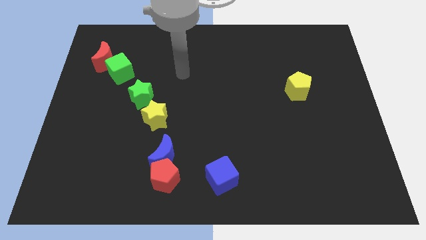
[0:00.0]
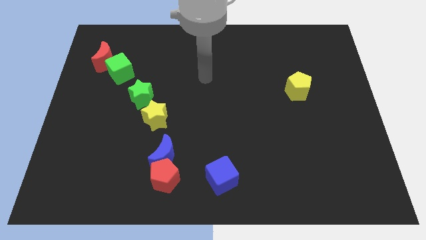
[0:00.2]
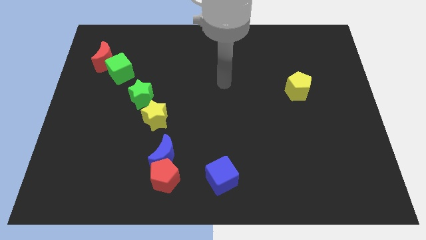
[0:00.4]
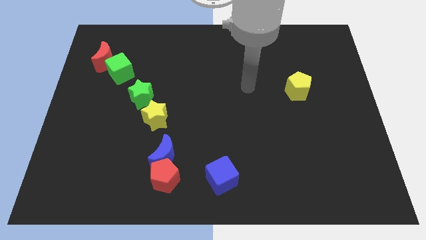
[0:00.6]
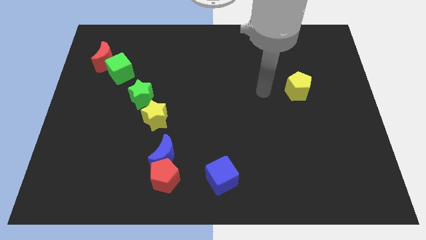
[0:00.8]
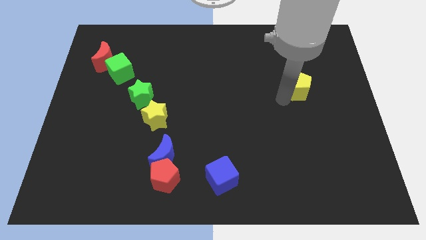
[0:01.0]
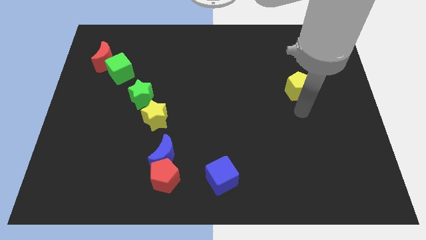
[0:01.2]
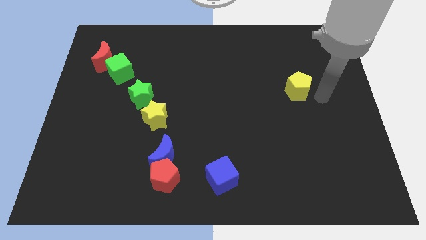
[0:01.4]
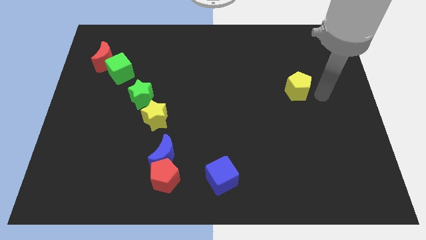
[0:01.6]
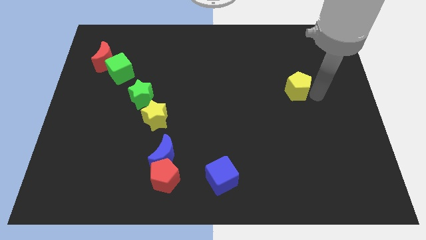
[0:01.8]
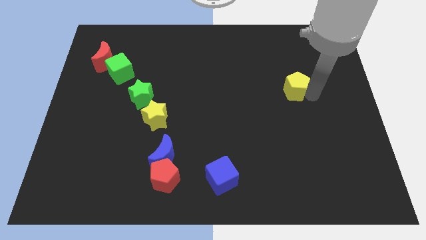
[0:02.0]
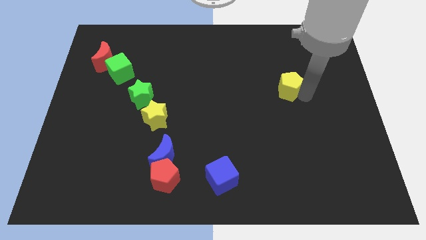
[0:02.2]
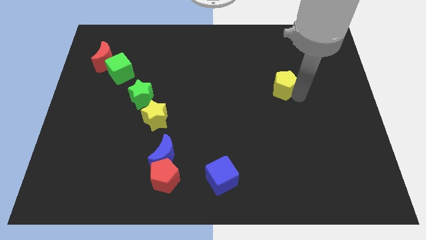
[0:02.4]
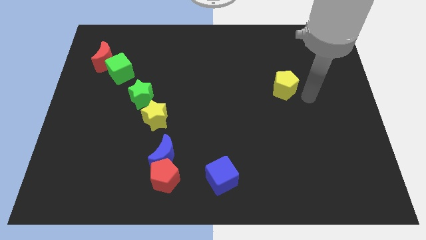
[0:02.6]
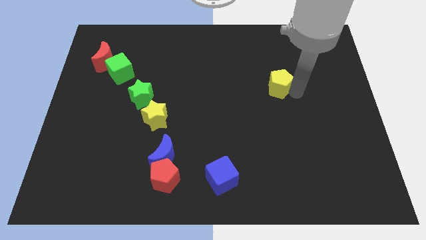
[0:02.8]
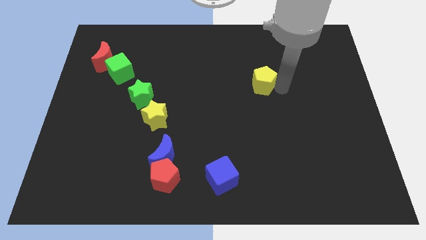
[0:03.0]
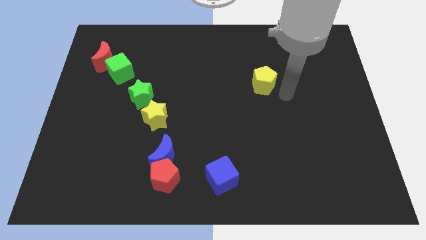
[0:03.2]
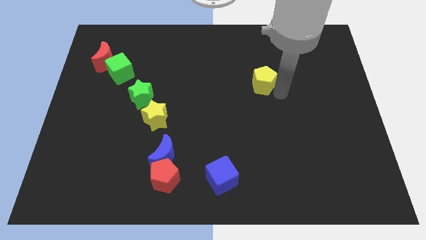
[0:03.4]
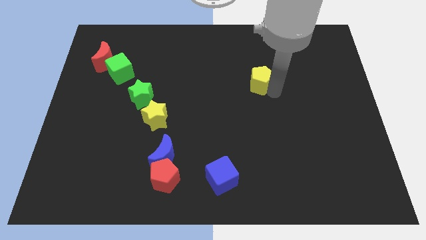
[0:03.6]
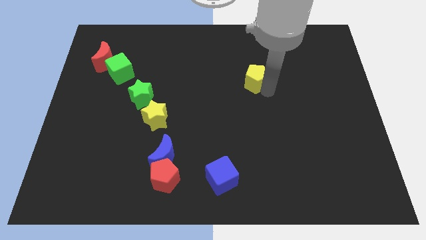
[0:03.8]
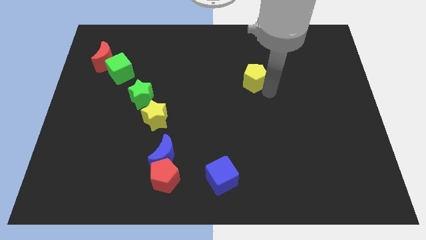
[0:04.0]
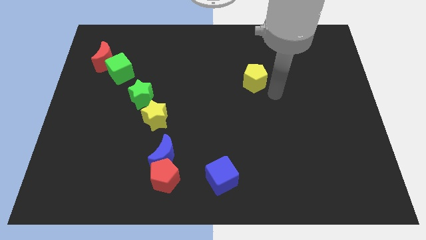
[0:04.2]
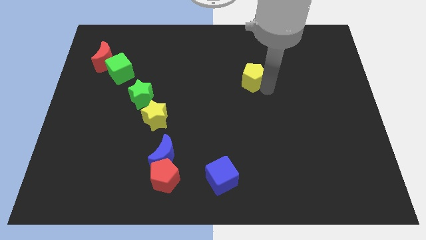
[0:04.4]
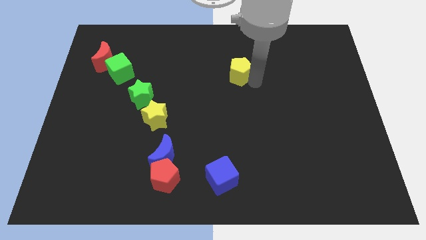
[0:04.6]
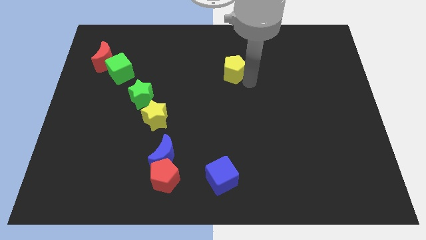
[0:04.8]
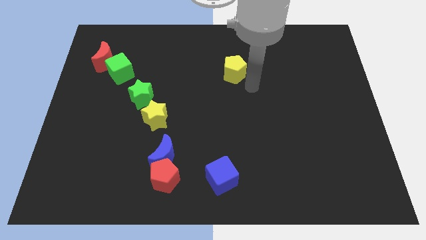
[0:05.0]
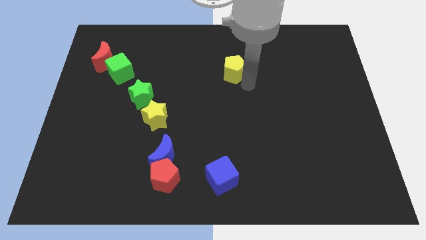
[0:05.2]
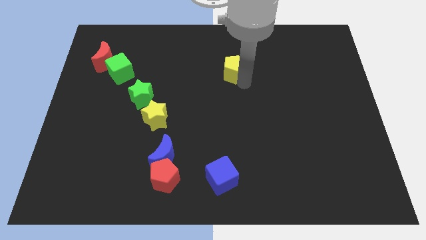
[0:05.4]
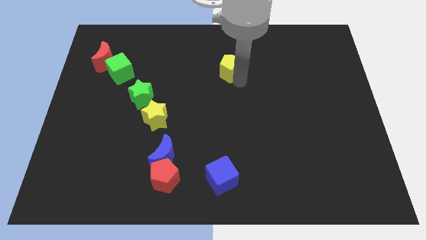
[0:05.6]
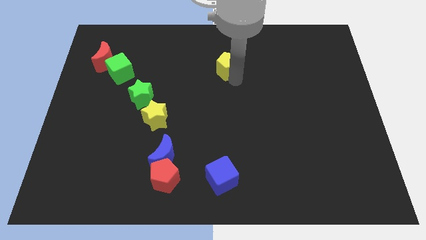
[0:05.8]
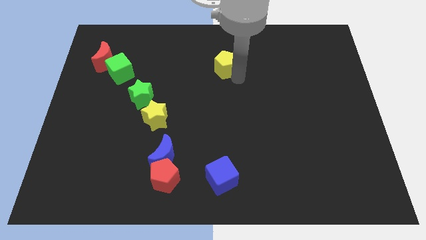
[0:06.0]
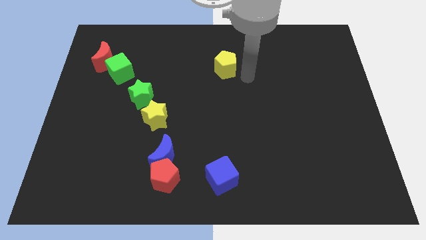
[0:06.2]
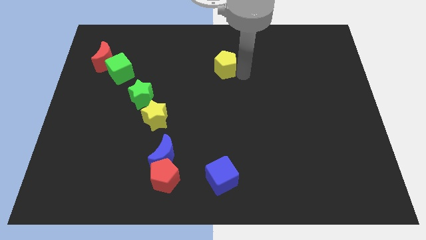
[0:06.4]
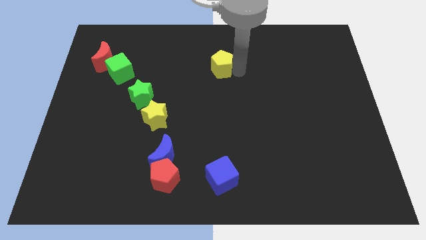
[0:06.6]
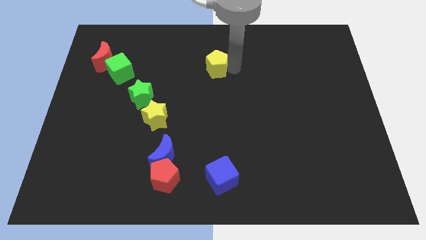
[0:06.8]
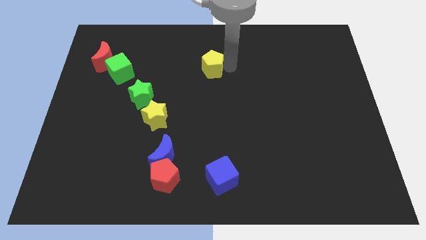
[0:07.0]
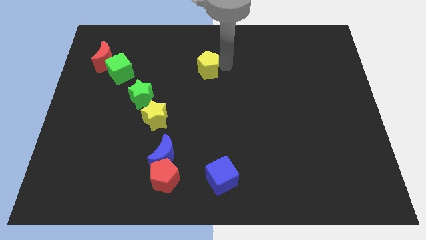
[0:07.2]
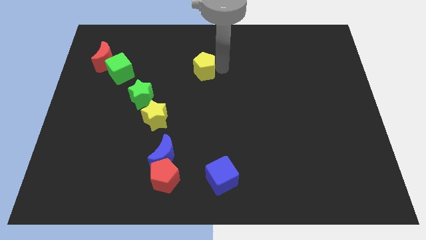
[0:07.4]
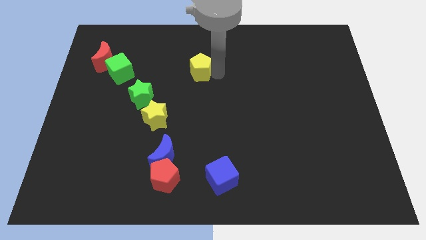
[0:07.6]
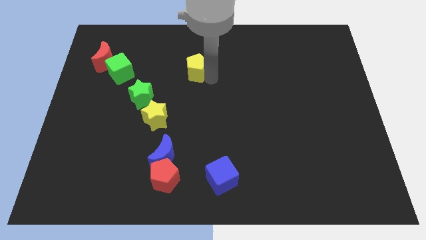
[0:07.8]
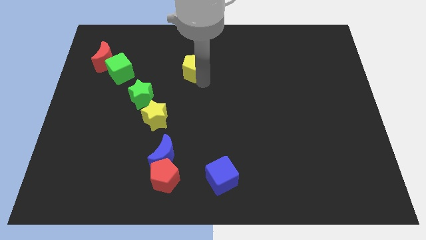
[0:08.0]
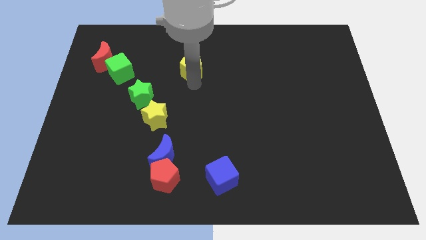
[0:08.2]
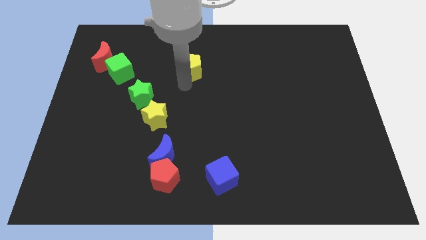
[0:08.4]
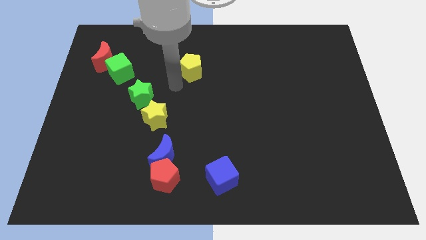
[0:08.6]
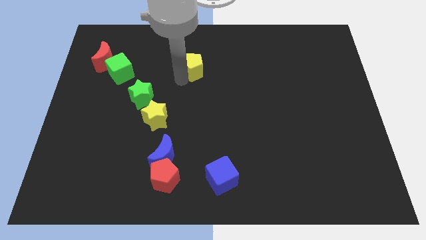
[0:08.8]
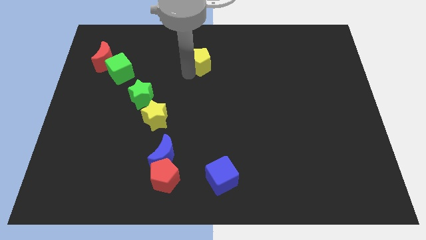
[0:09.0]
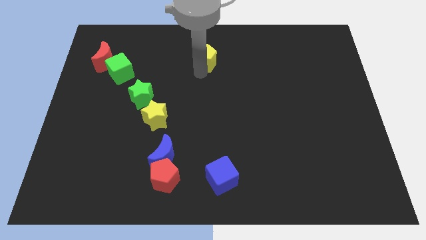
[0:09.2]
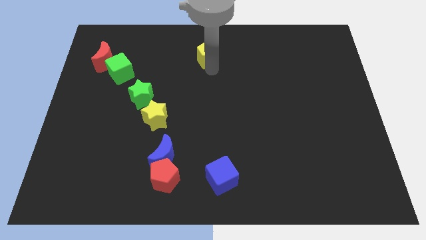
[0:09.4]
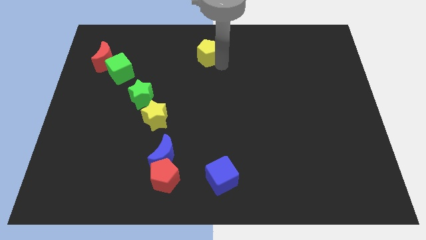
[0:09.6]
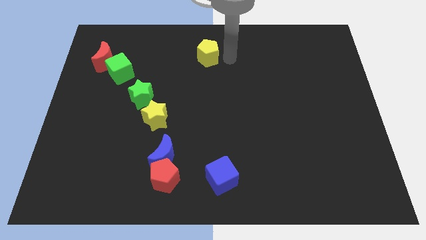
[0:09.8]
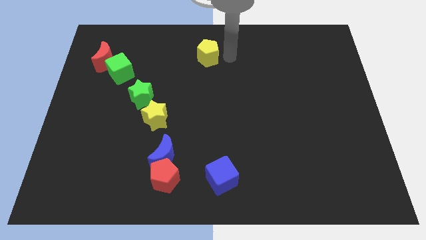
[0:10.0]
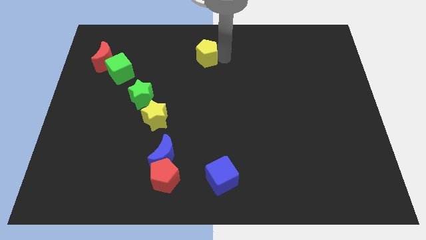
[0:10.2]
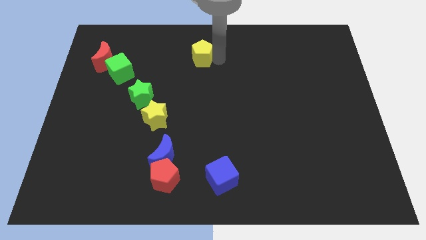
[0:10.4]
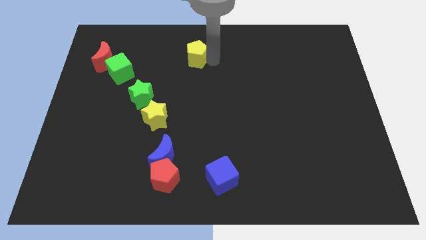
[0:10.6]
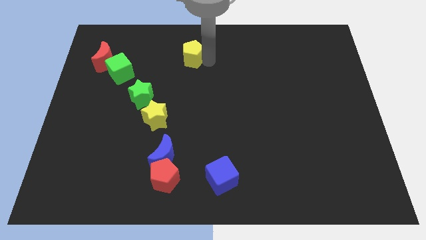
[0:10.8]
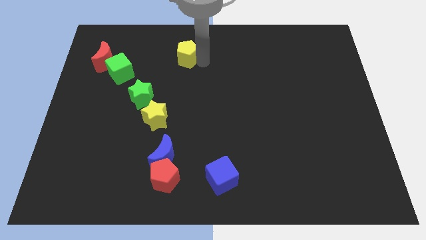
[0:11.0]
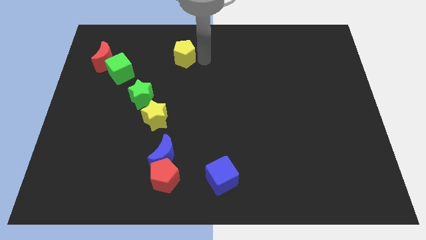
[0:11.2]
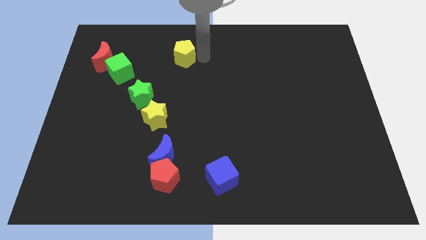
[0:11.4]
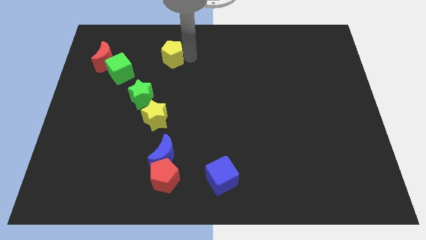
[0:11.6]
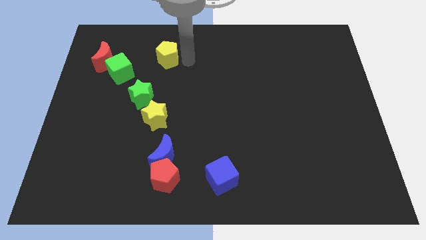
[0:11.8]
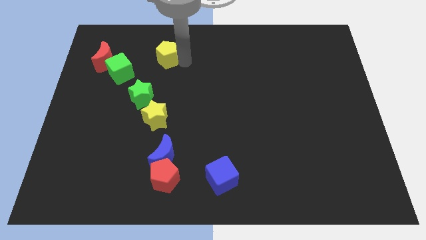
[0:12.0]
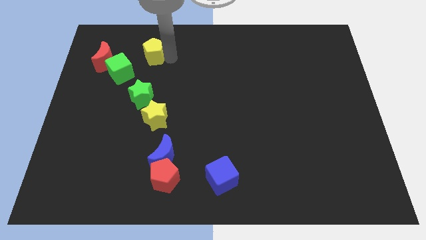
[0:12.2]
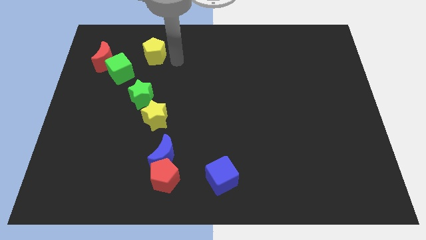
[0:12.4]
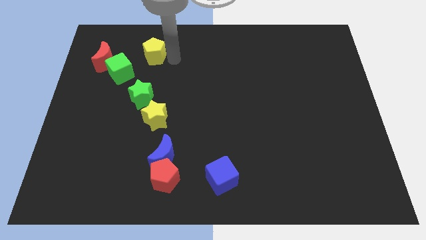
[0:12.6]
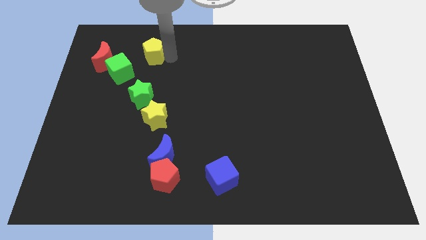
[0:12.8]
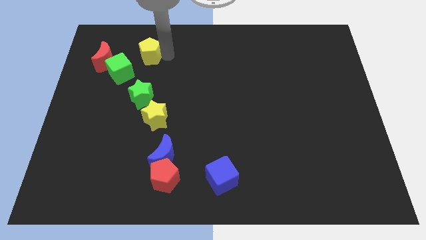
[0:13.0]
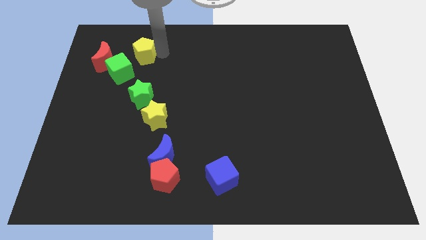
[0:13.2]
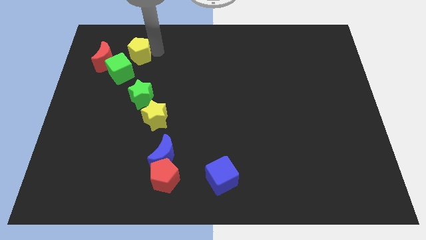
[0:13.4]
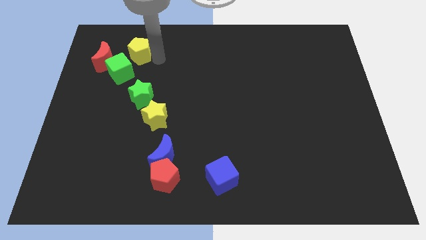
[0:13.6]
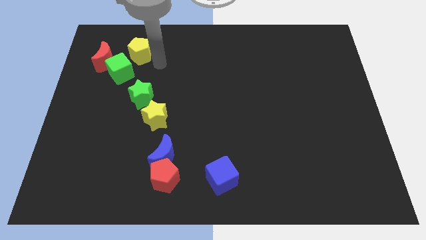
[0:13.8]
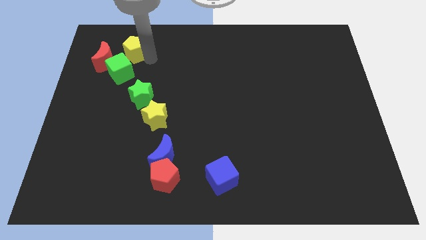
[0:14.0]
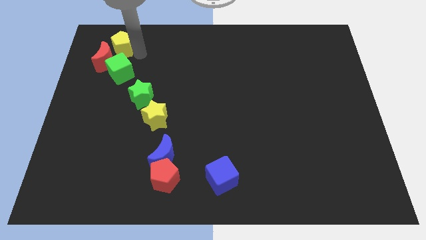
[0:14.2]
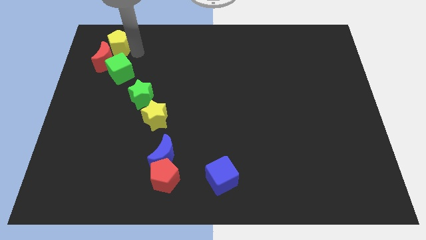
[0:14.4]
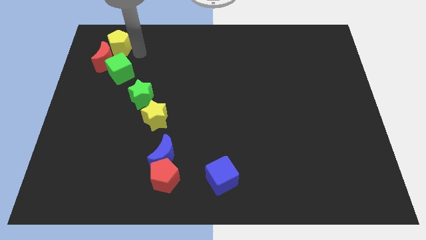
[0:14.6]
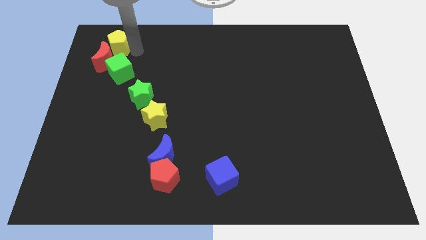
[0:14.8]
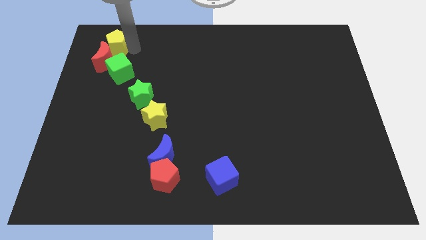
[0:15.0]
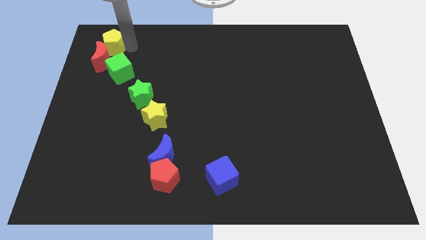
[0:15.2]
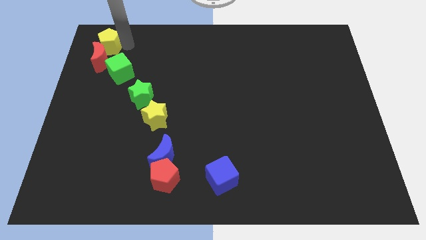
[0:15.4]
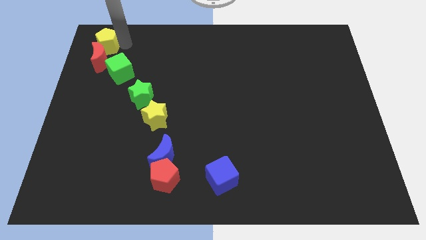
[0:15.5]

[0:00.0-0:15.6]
put the yellow pentagon to the top left corner
